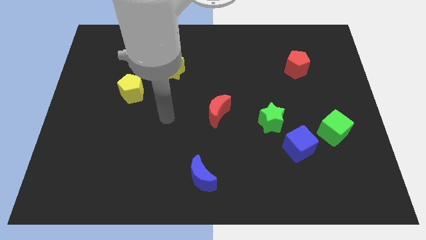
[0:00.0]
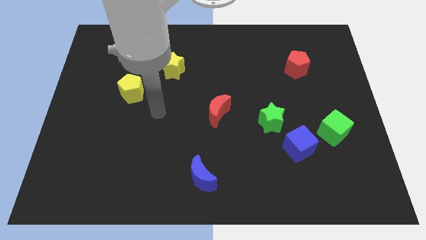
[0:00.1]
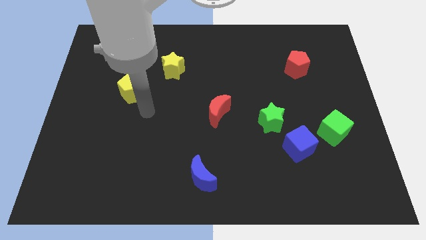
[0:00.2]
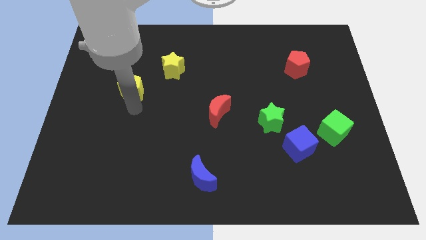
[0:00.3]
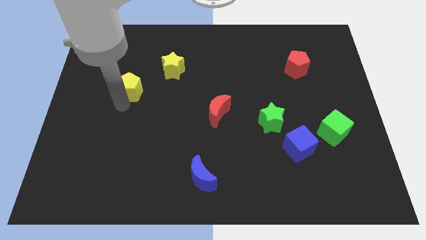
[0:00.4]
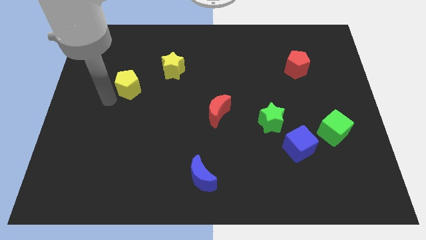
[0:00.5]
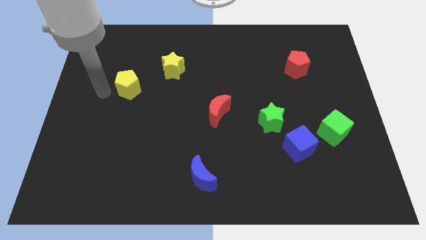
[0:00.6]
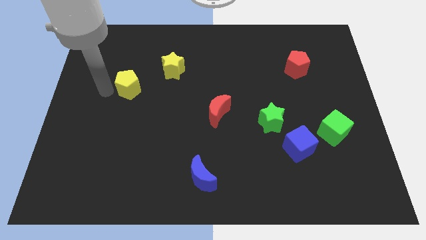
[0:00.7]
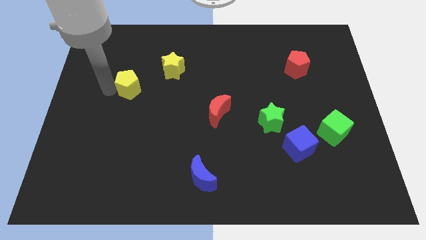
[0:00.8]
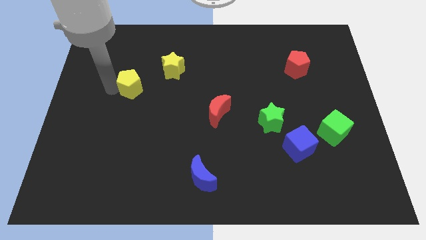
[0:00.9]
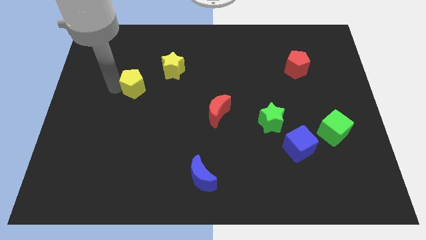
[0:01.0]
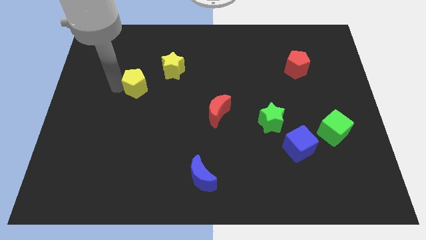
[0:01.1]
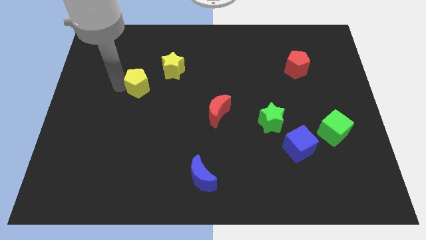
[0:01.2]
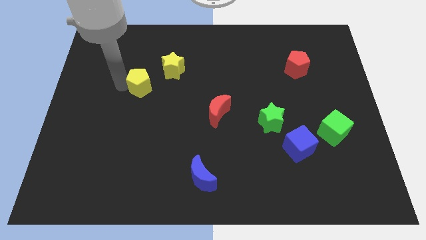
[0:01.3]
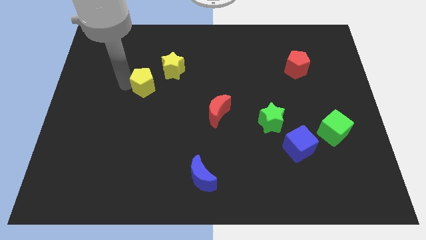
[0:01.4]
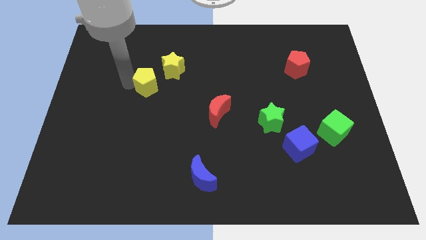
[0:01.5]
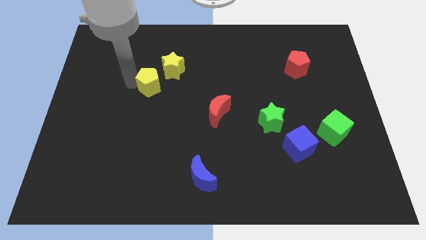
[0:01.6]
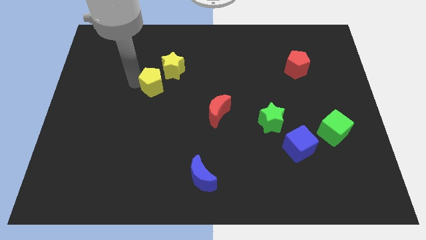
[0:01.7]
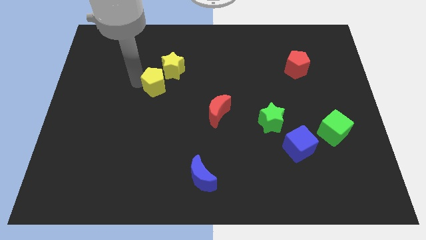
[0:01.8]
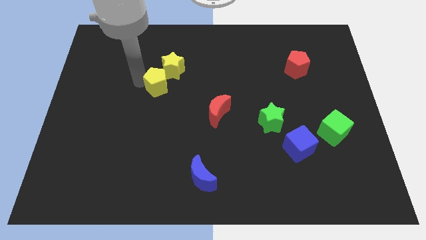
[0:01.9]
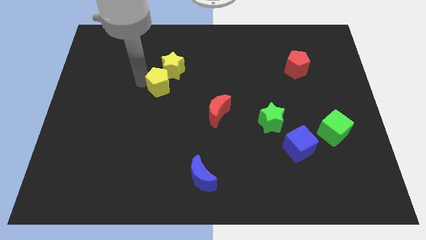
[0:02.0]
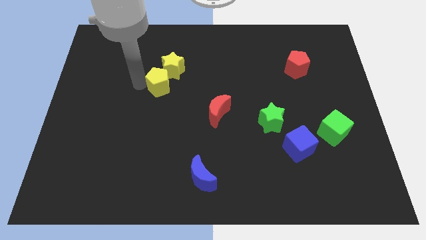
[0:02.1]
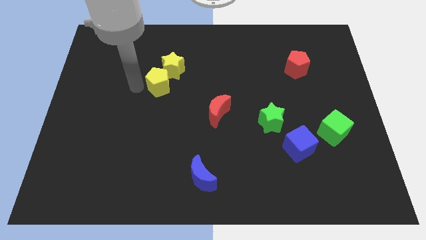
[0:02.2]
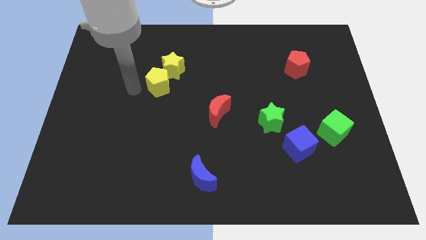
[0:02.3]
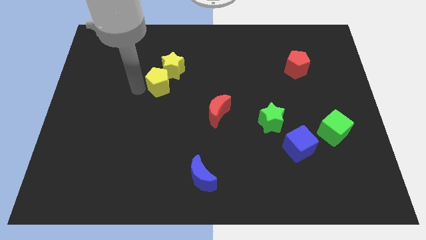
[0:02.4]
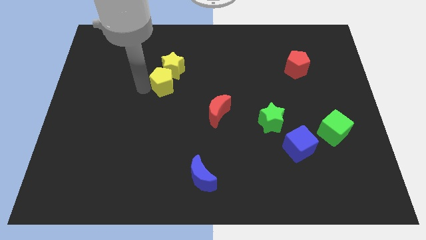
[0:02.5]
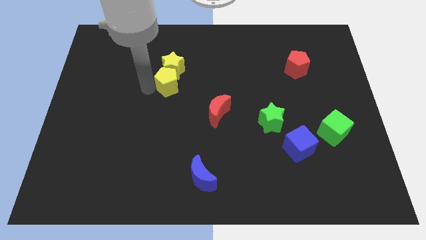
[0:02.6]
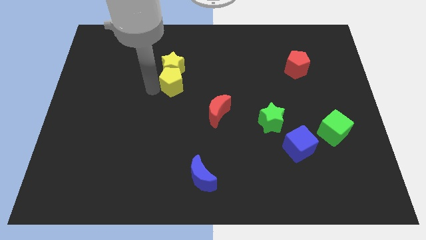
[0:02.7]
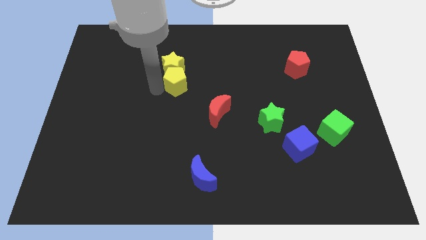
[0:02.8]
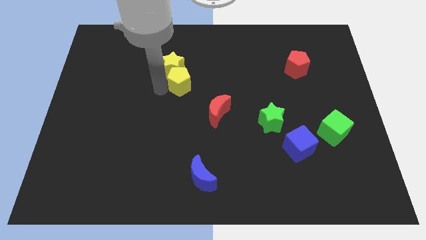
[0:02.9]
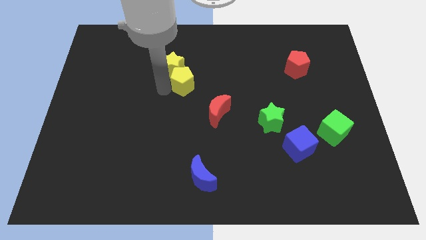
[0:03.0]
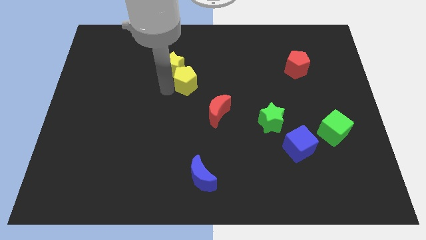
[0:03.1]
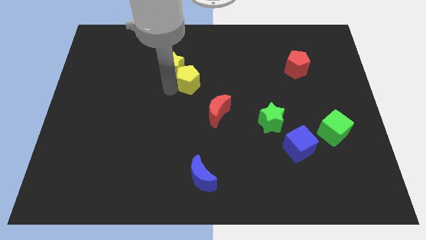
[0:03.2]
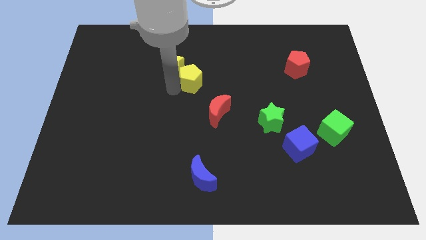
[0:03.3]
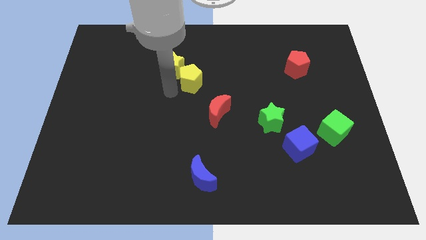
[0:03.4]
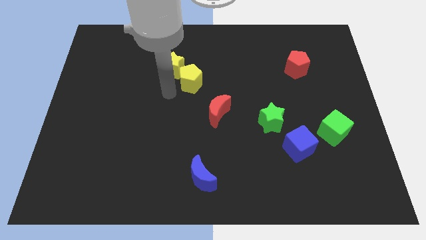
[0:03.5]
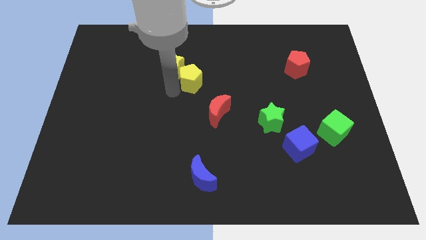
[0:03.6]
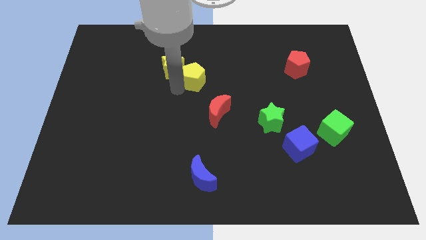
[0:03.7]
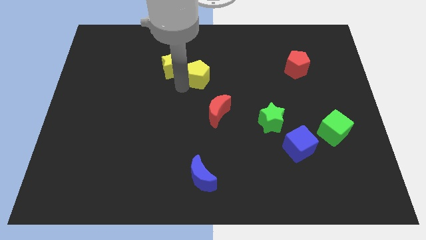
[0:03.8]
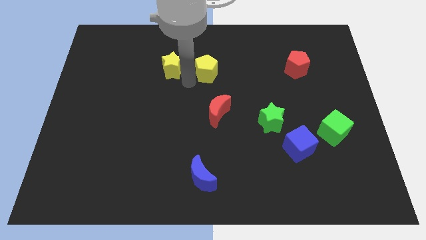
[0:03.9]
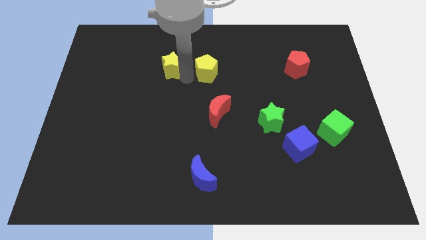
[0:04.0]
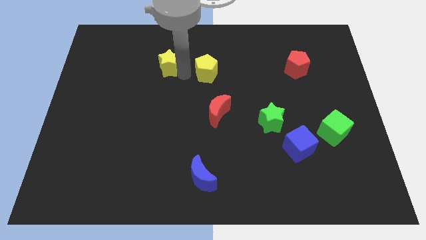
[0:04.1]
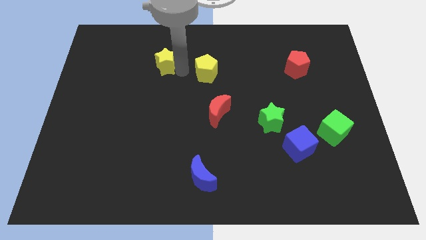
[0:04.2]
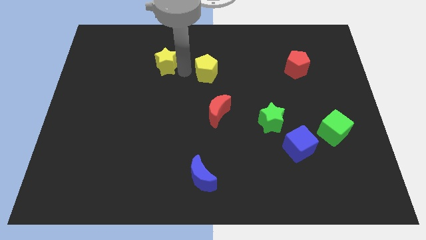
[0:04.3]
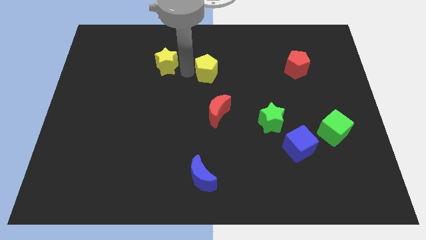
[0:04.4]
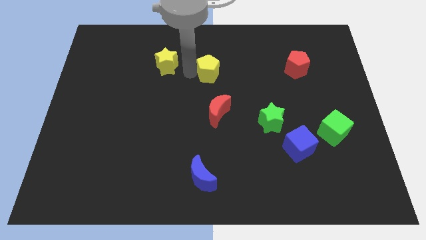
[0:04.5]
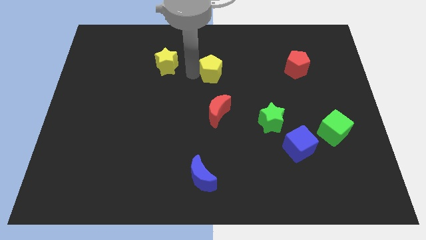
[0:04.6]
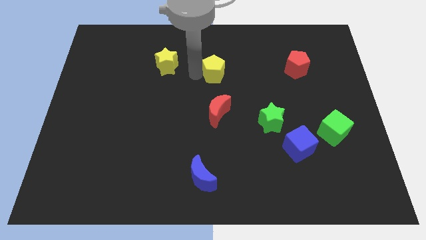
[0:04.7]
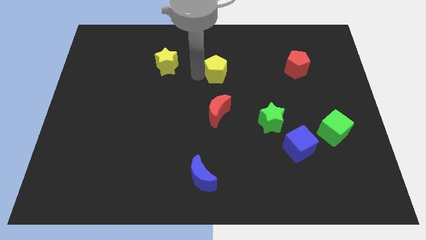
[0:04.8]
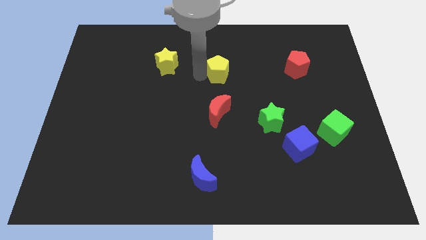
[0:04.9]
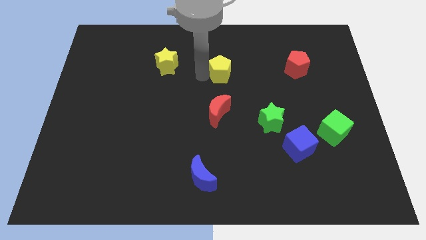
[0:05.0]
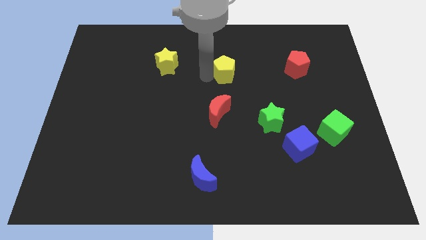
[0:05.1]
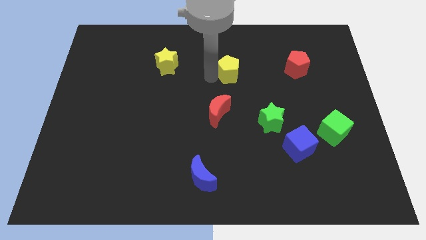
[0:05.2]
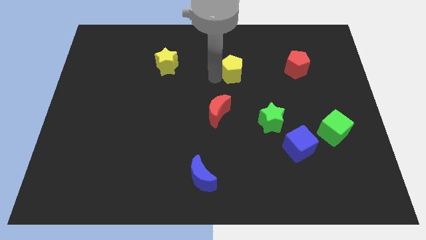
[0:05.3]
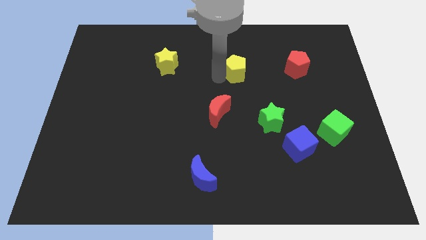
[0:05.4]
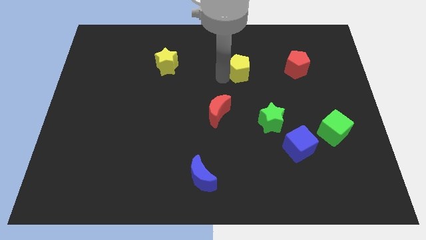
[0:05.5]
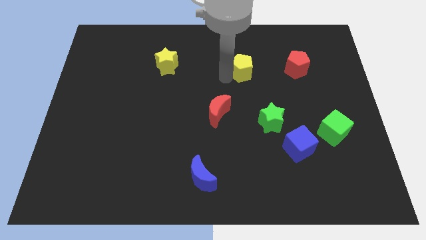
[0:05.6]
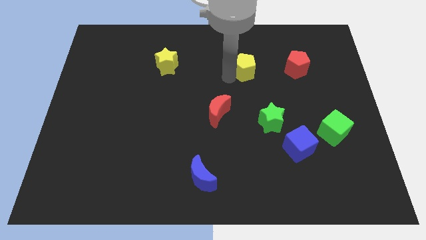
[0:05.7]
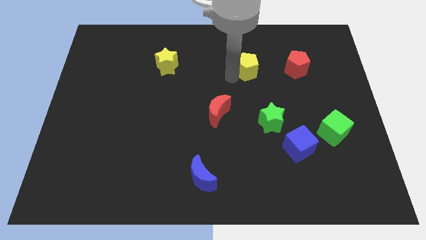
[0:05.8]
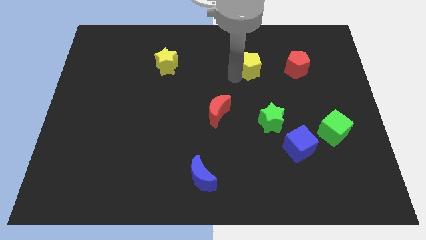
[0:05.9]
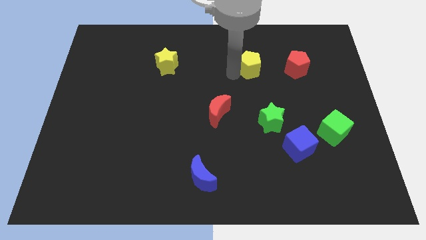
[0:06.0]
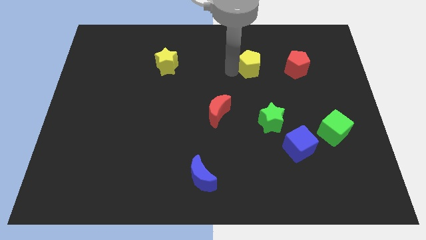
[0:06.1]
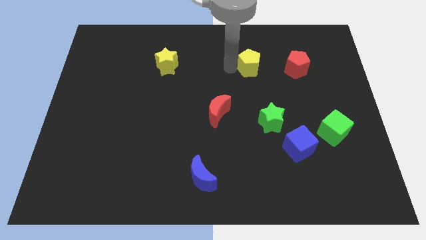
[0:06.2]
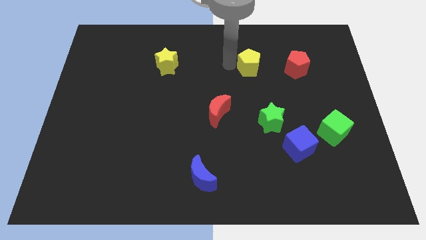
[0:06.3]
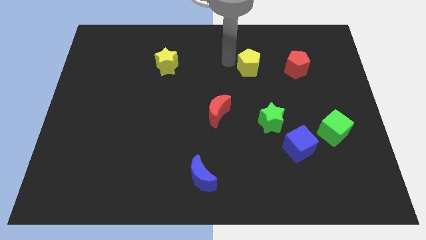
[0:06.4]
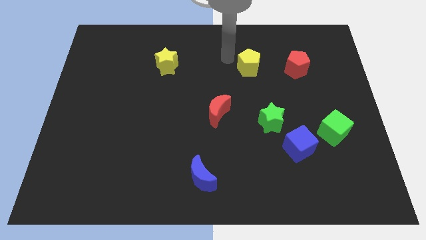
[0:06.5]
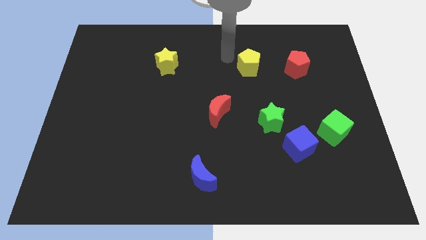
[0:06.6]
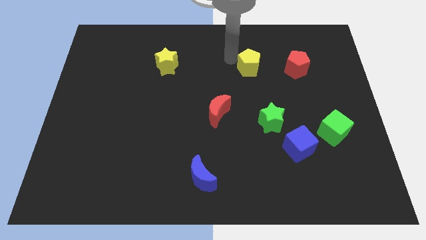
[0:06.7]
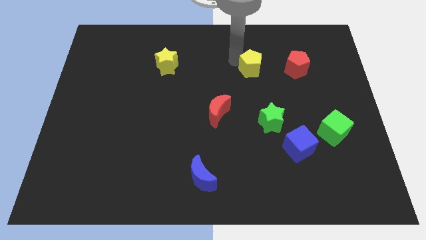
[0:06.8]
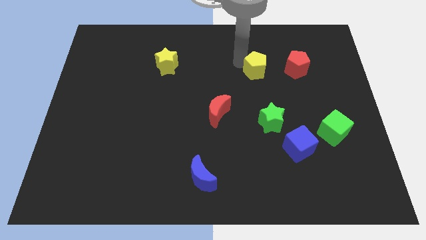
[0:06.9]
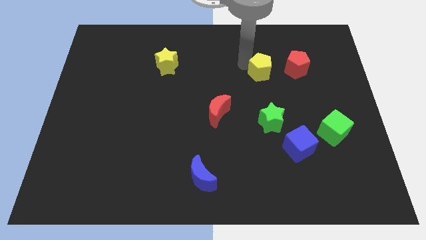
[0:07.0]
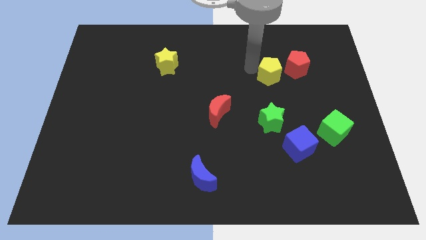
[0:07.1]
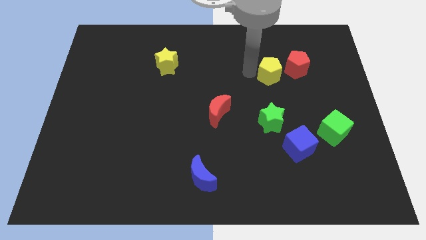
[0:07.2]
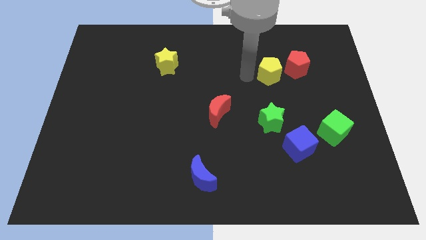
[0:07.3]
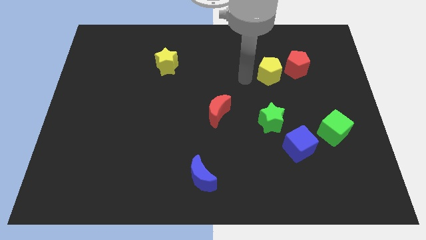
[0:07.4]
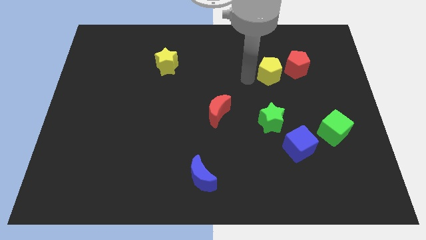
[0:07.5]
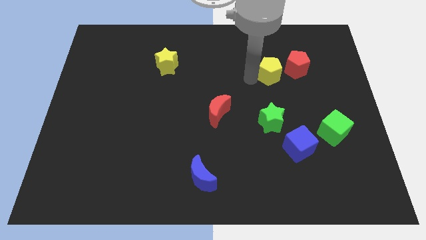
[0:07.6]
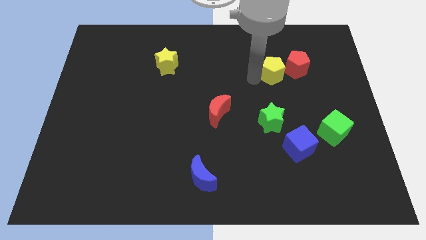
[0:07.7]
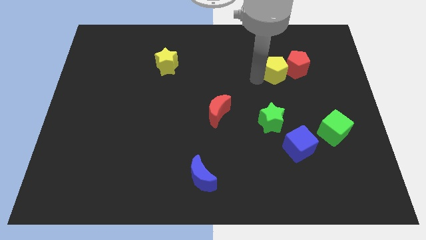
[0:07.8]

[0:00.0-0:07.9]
push the yellow pentagon to the red pentagon
